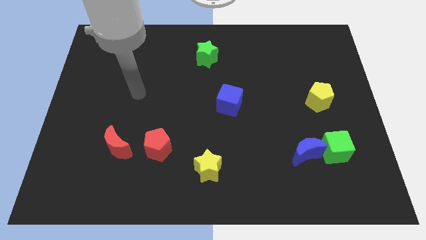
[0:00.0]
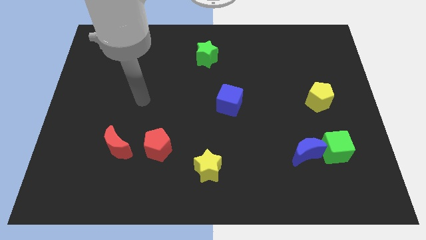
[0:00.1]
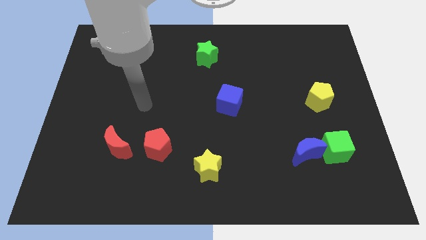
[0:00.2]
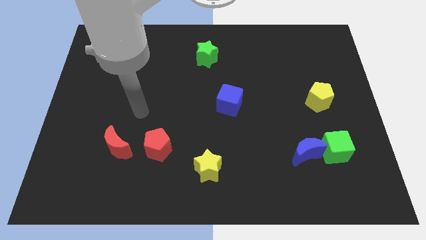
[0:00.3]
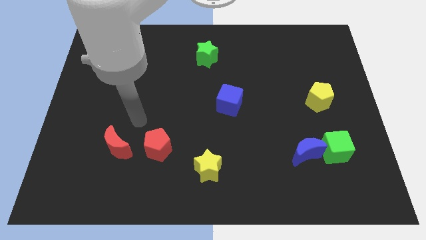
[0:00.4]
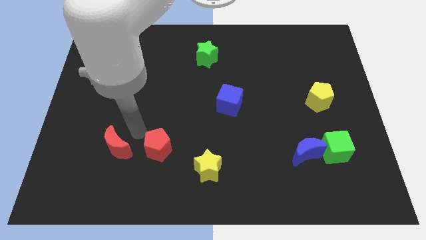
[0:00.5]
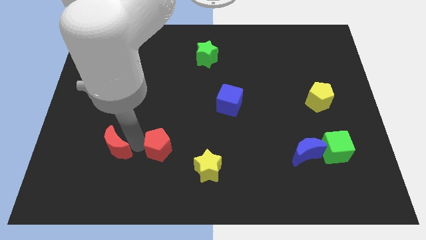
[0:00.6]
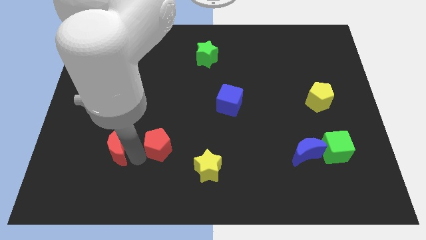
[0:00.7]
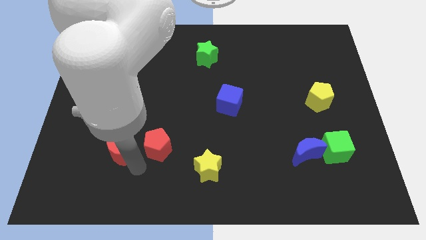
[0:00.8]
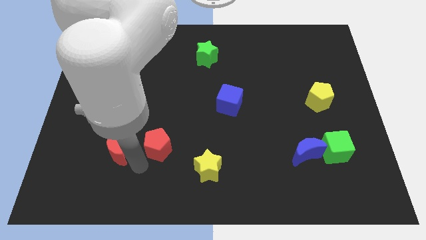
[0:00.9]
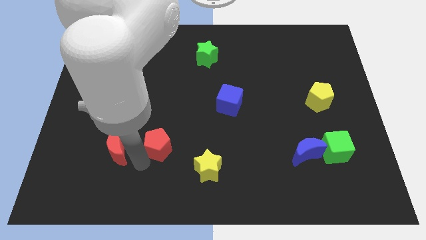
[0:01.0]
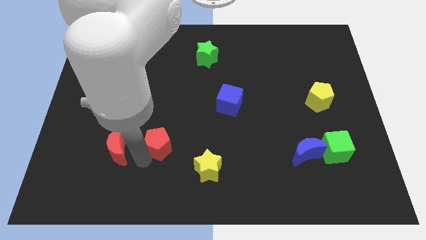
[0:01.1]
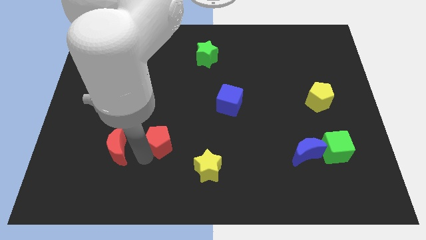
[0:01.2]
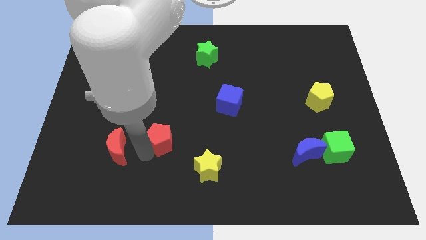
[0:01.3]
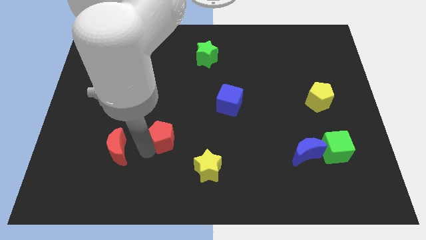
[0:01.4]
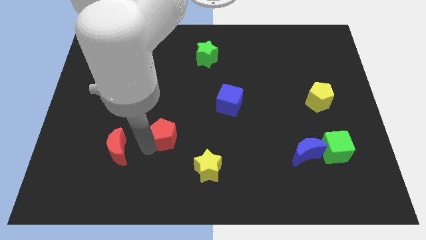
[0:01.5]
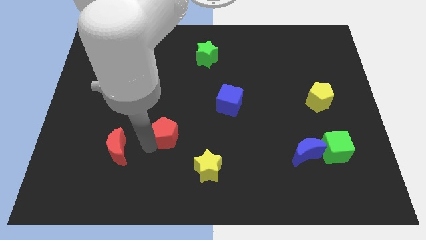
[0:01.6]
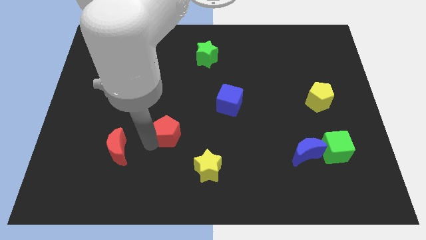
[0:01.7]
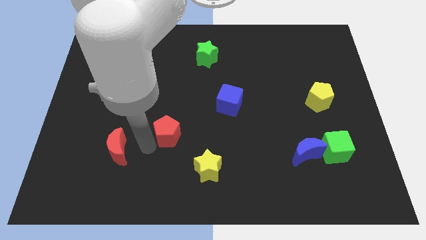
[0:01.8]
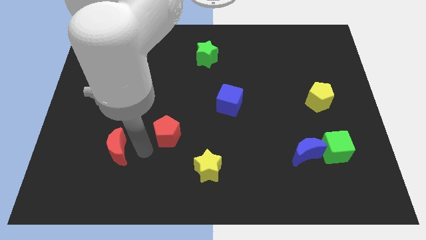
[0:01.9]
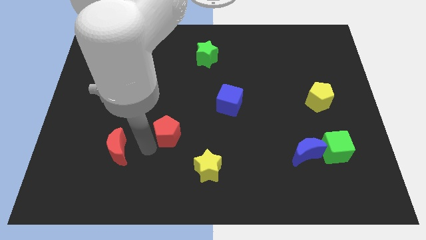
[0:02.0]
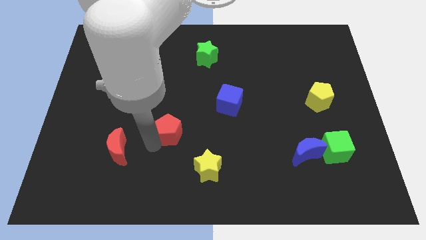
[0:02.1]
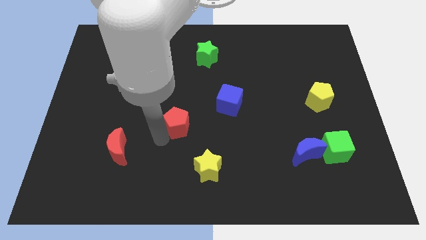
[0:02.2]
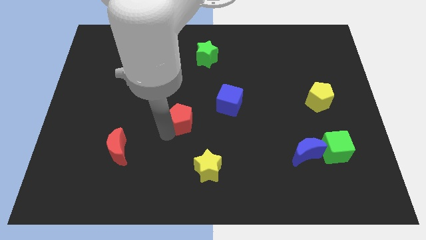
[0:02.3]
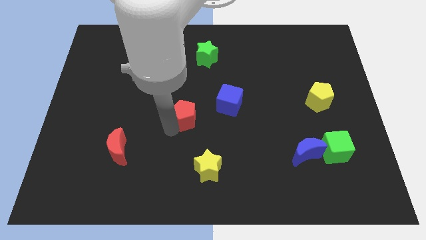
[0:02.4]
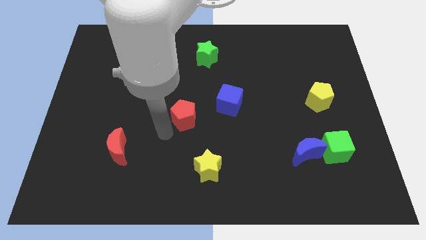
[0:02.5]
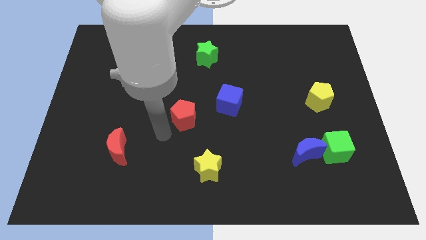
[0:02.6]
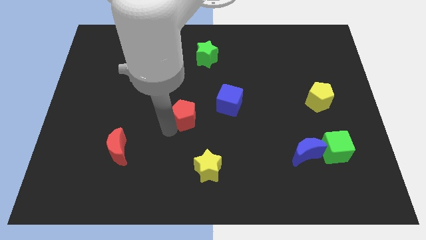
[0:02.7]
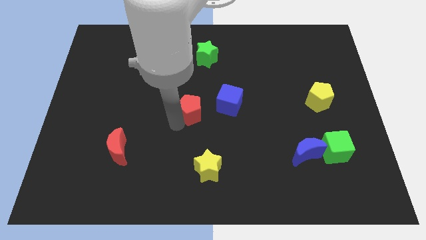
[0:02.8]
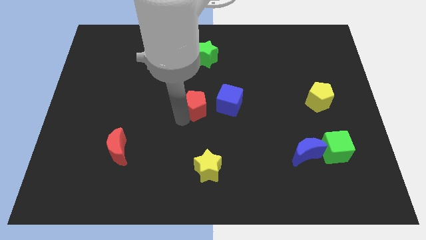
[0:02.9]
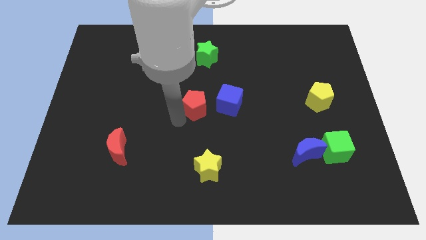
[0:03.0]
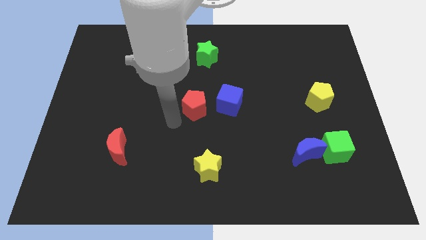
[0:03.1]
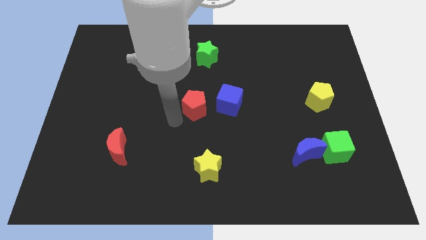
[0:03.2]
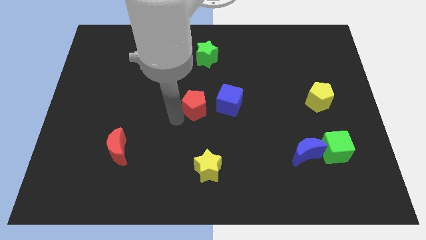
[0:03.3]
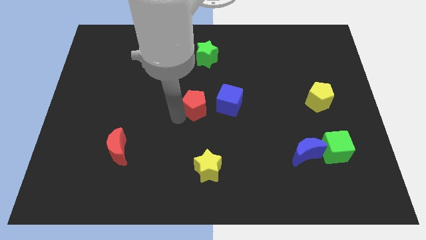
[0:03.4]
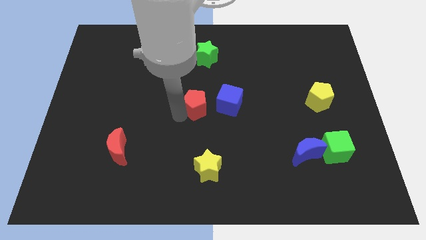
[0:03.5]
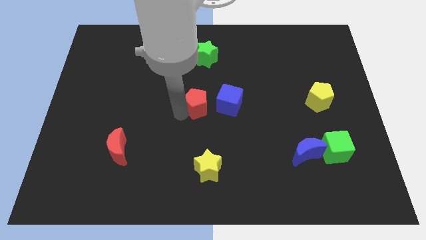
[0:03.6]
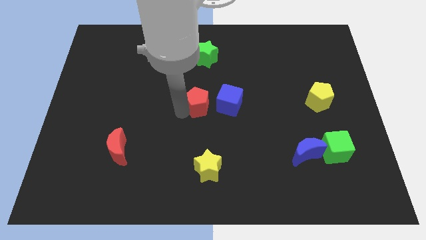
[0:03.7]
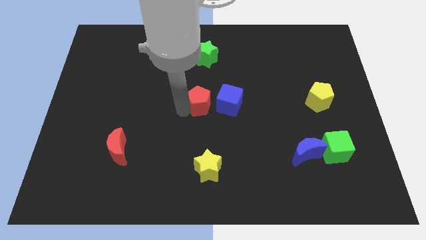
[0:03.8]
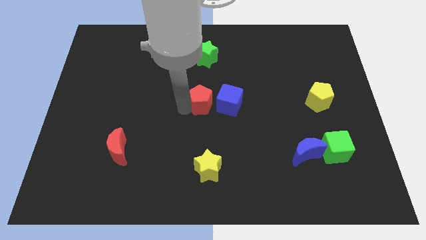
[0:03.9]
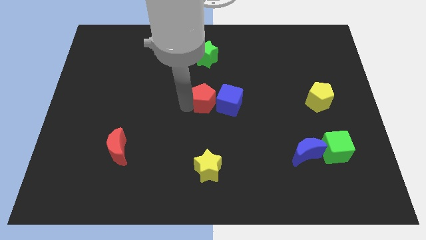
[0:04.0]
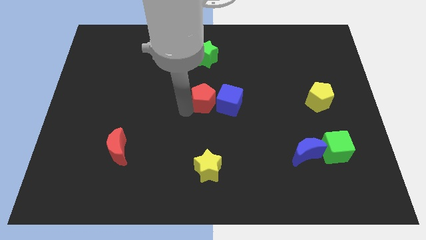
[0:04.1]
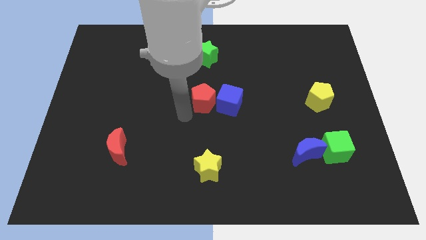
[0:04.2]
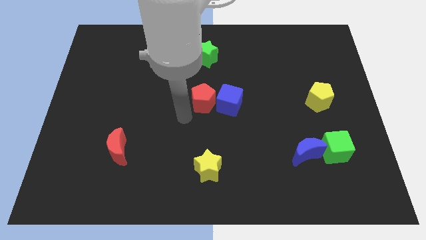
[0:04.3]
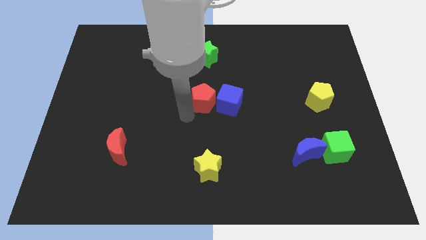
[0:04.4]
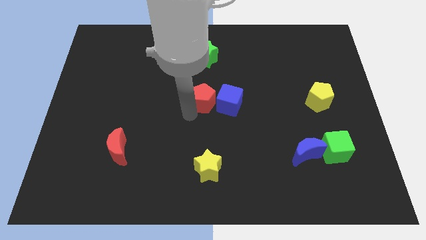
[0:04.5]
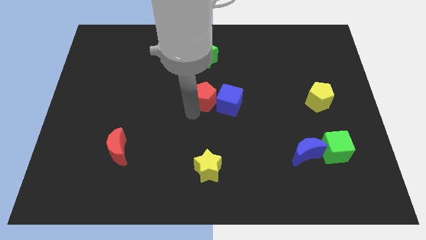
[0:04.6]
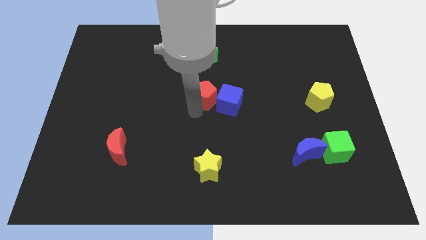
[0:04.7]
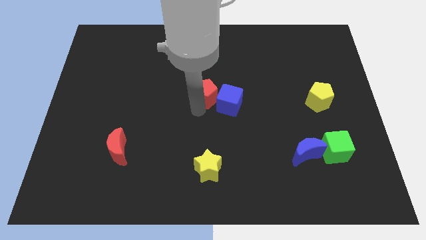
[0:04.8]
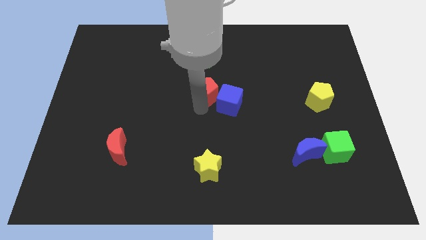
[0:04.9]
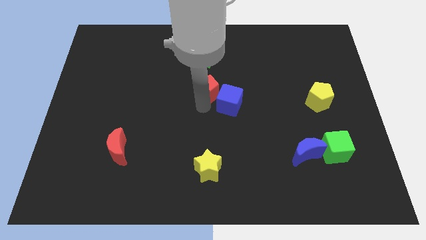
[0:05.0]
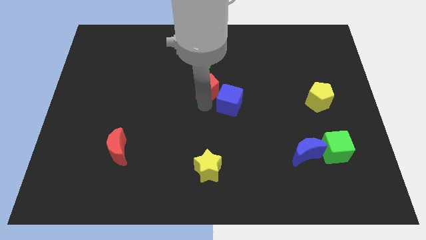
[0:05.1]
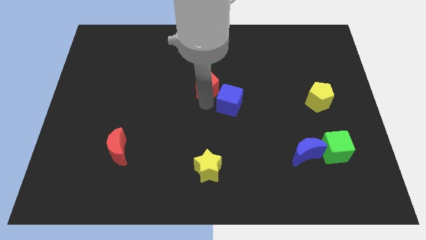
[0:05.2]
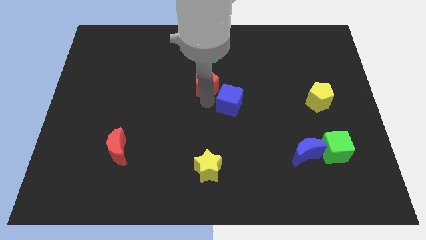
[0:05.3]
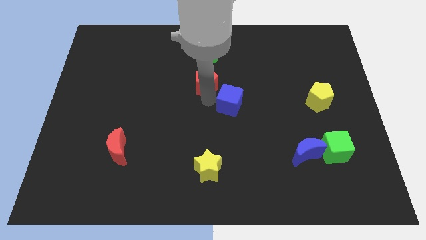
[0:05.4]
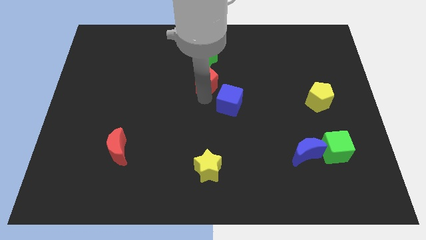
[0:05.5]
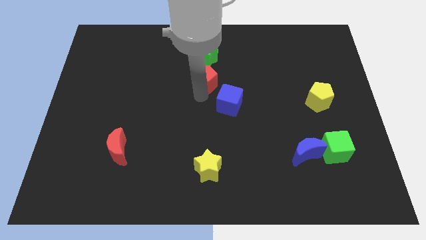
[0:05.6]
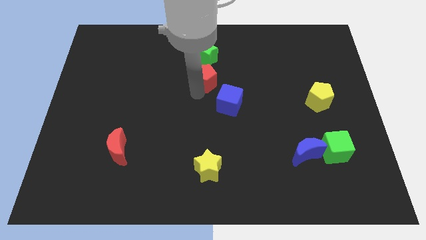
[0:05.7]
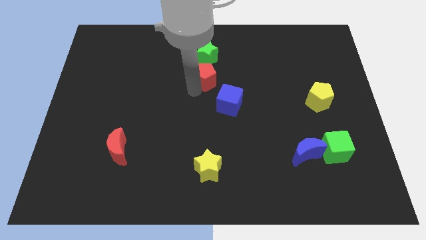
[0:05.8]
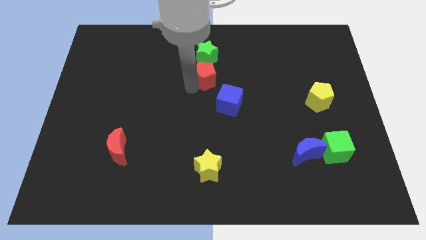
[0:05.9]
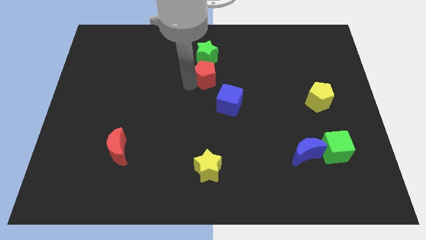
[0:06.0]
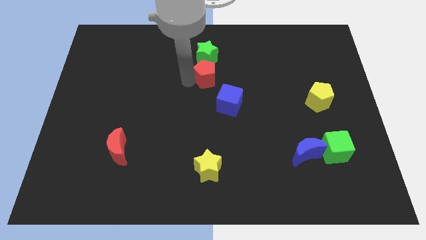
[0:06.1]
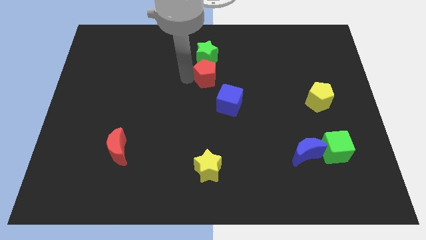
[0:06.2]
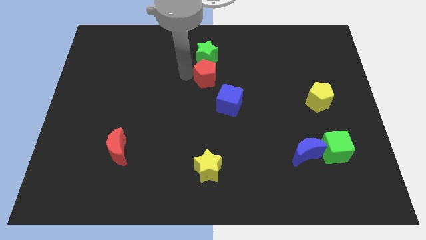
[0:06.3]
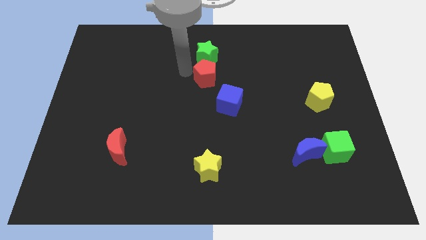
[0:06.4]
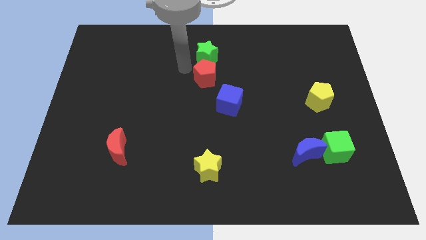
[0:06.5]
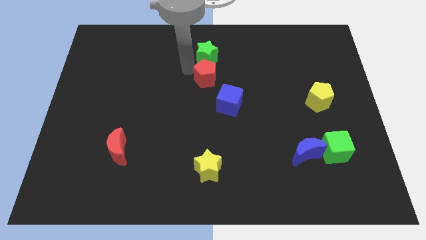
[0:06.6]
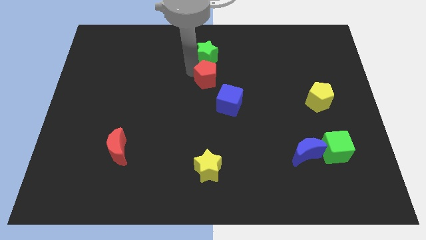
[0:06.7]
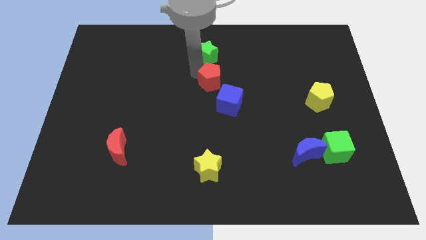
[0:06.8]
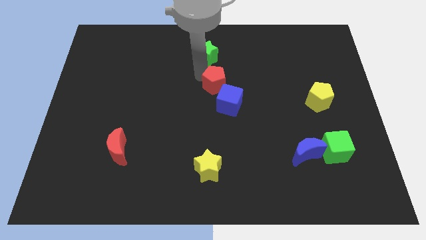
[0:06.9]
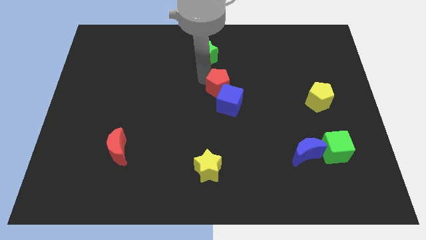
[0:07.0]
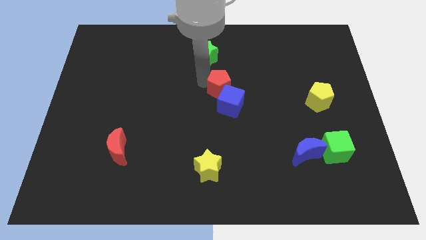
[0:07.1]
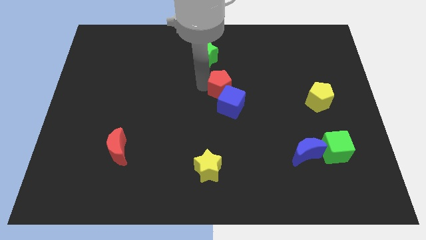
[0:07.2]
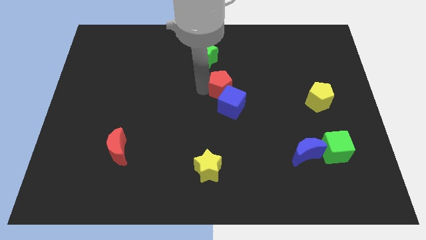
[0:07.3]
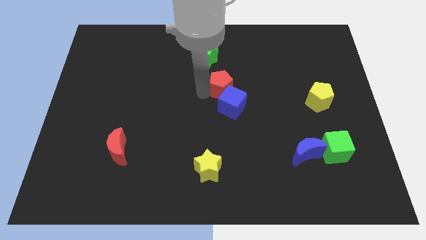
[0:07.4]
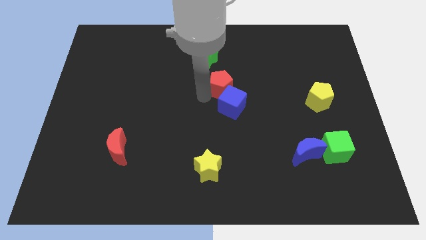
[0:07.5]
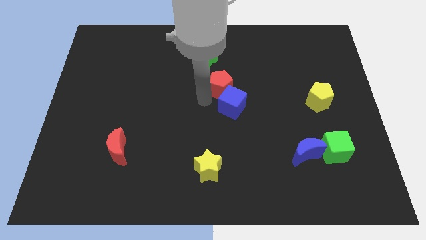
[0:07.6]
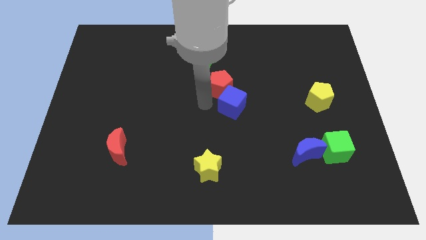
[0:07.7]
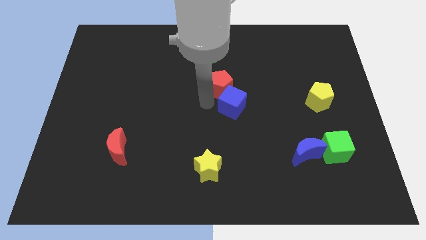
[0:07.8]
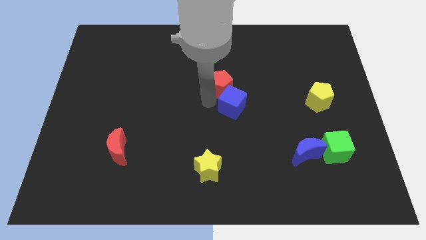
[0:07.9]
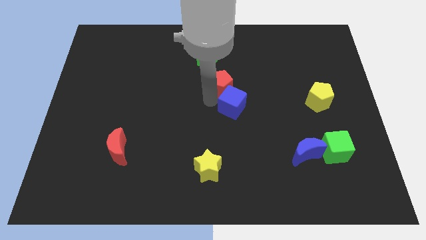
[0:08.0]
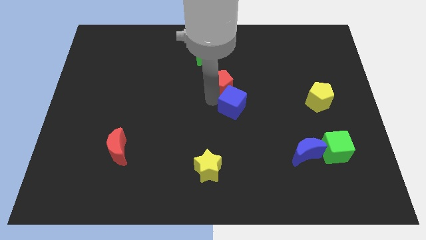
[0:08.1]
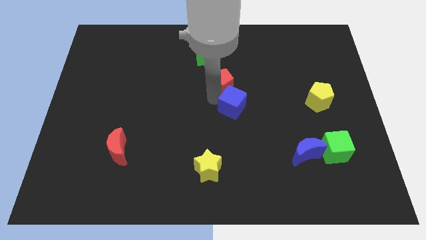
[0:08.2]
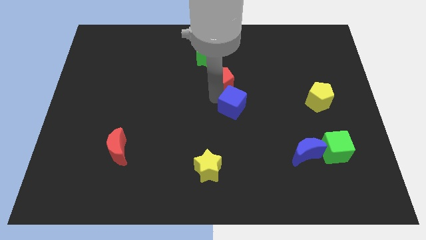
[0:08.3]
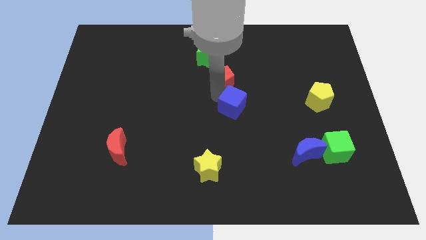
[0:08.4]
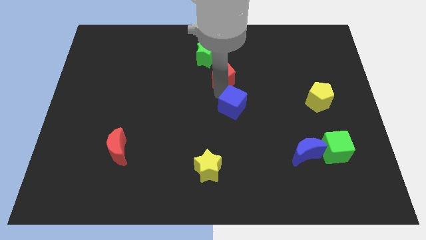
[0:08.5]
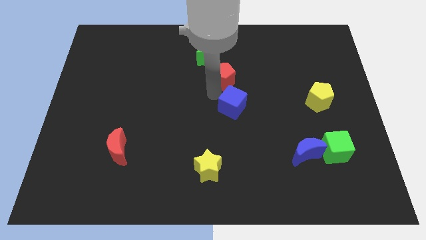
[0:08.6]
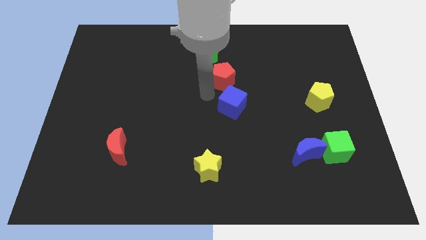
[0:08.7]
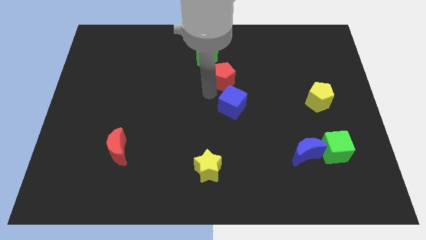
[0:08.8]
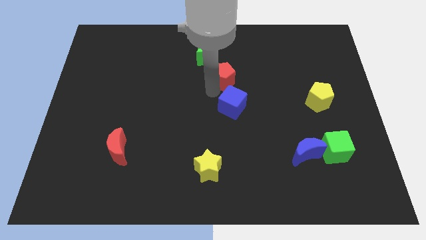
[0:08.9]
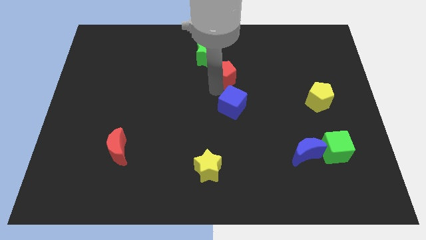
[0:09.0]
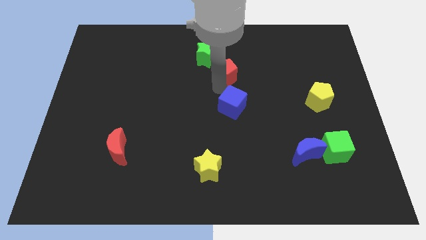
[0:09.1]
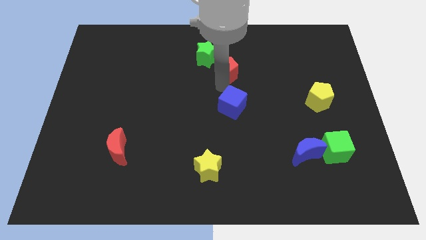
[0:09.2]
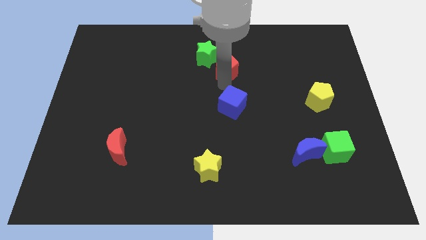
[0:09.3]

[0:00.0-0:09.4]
move the red pentagon right of the green star
